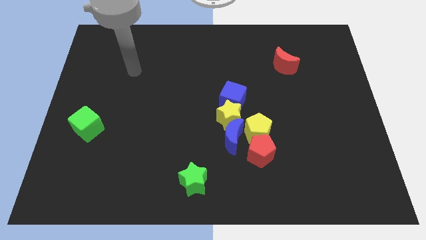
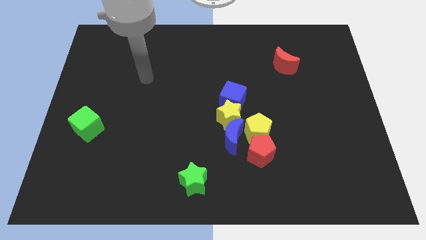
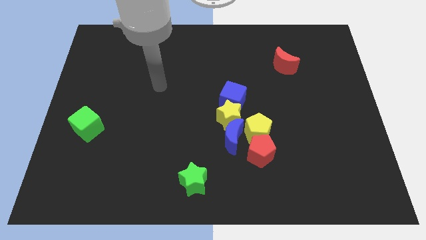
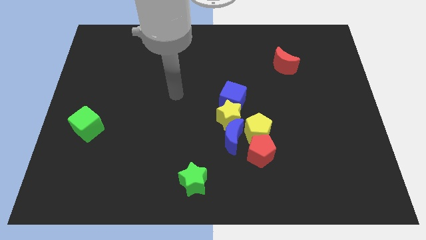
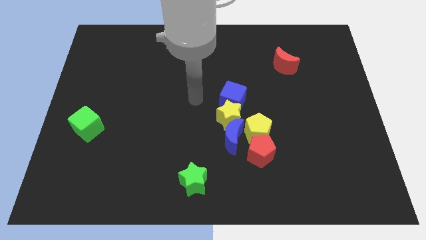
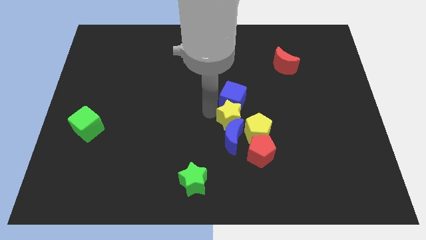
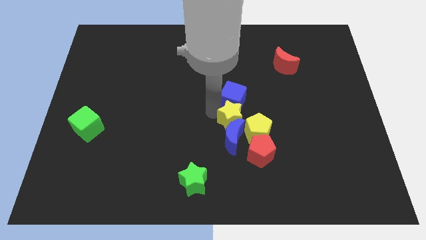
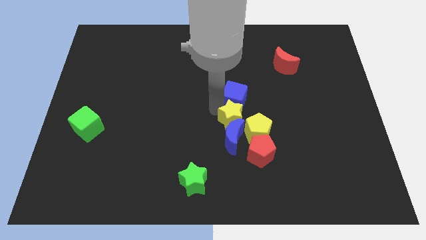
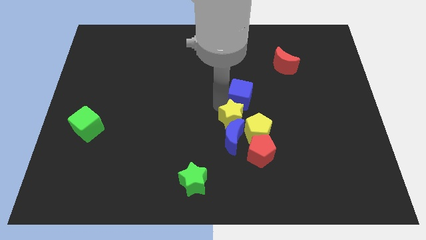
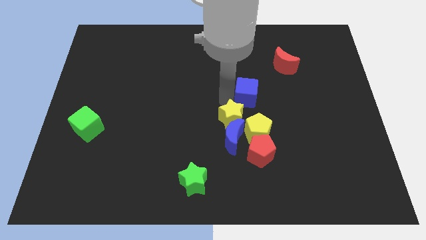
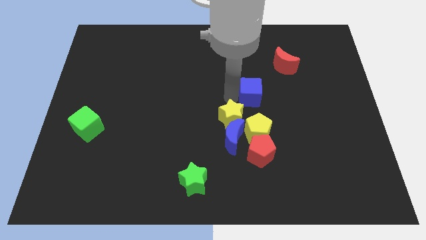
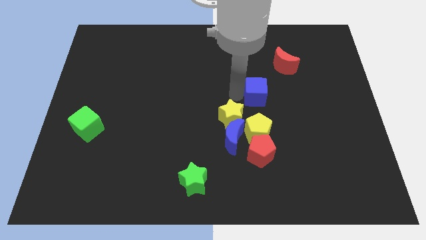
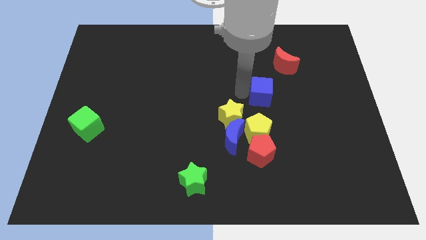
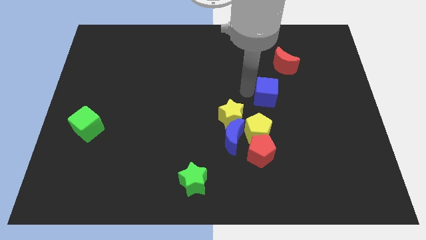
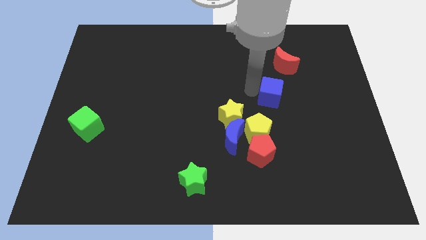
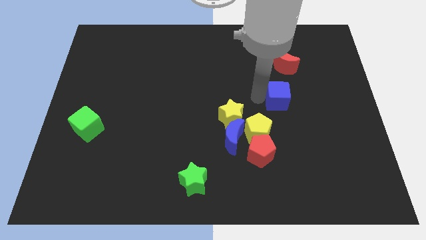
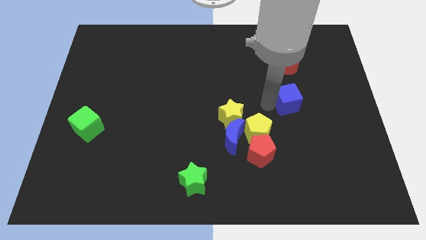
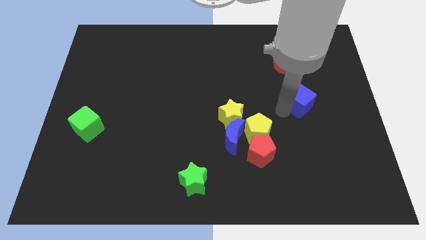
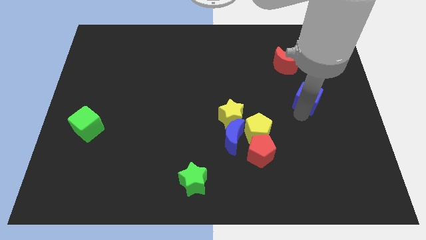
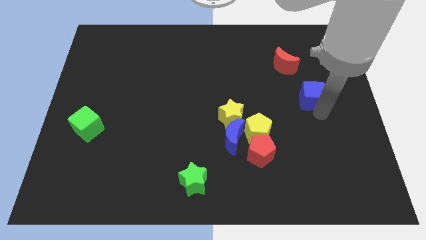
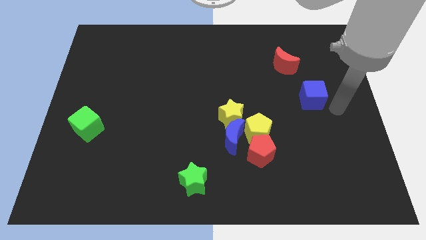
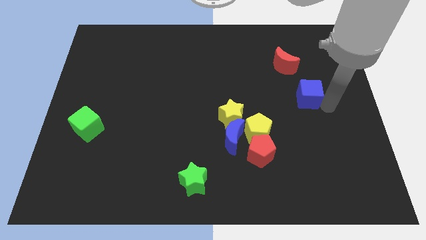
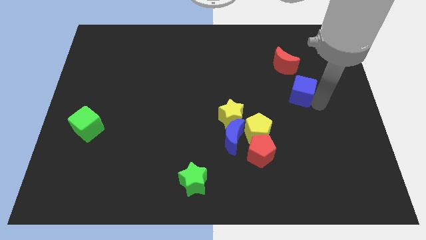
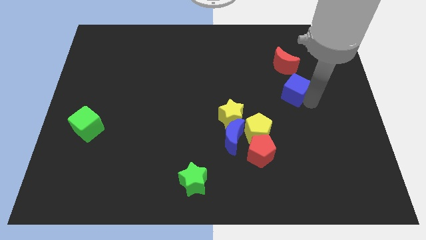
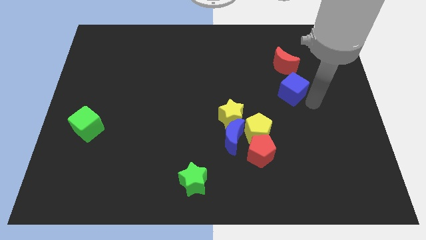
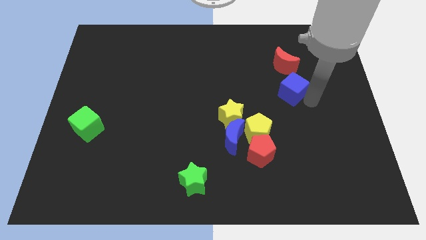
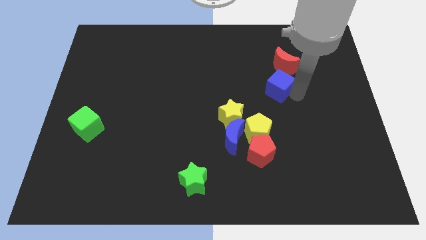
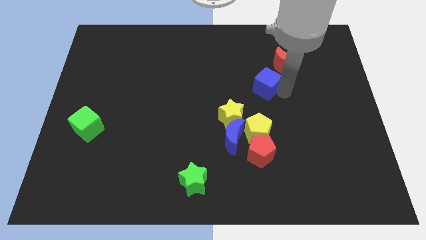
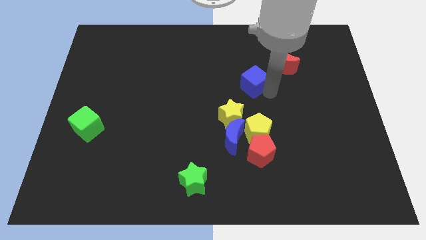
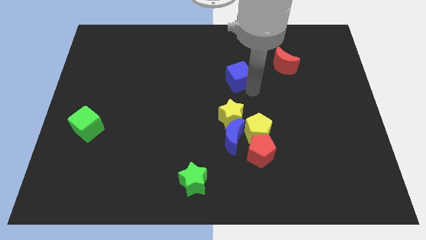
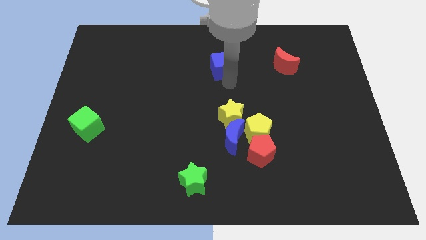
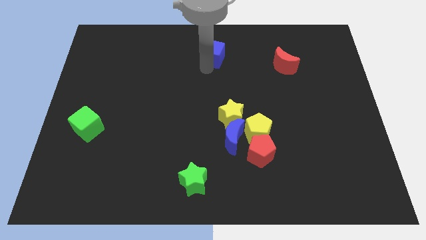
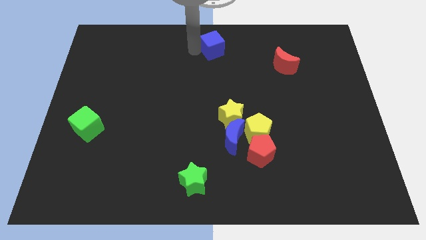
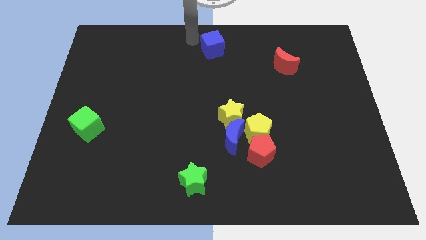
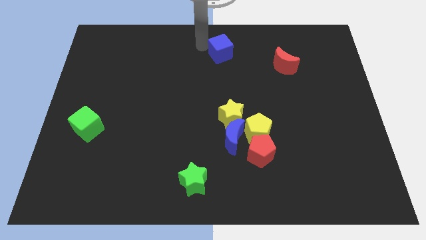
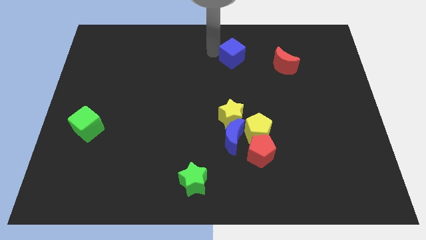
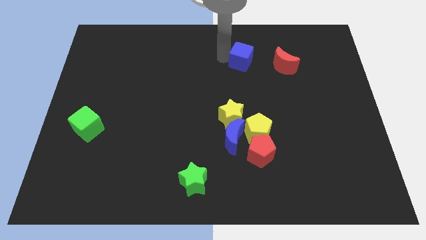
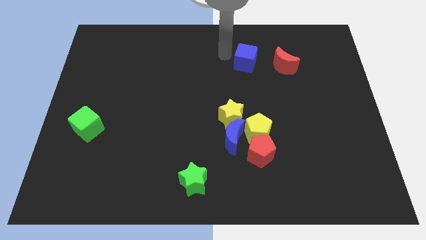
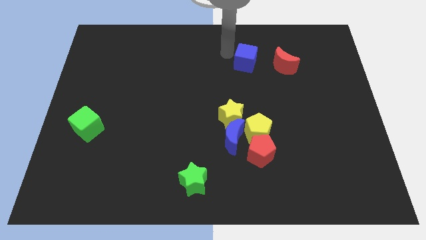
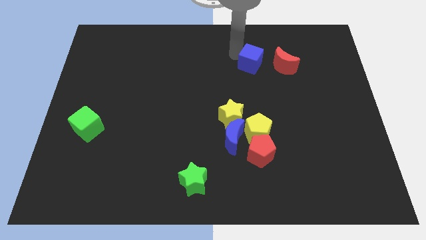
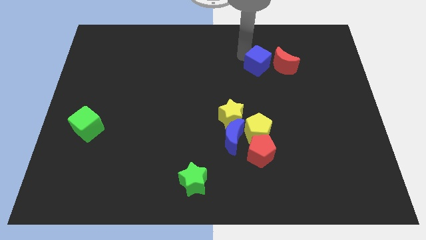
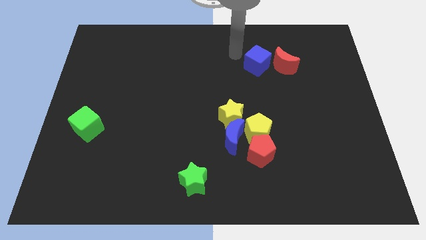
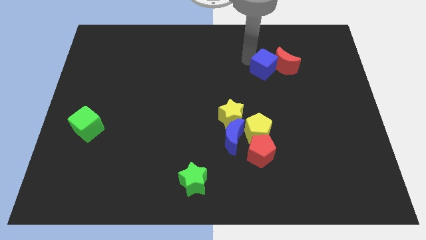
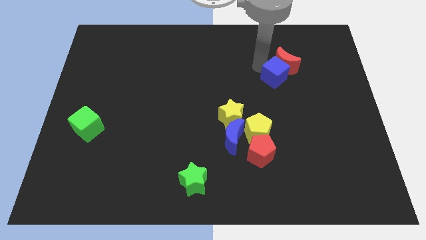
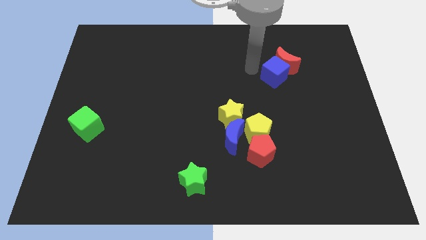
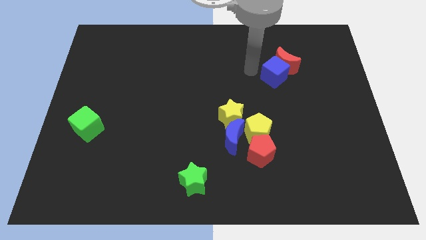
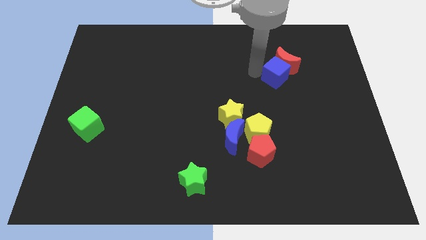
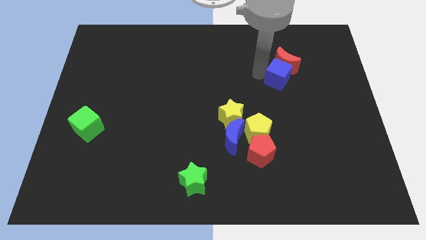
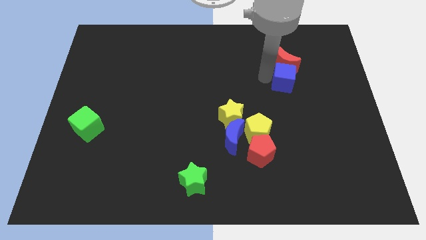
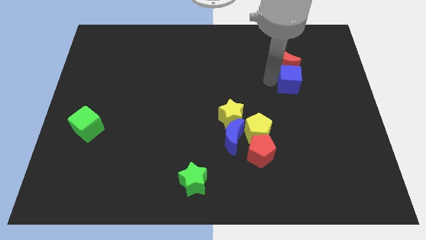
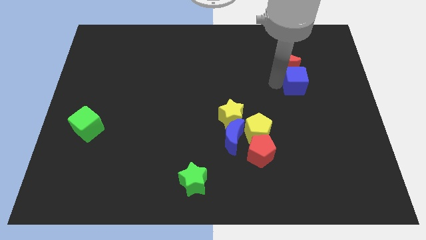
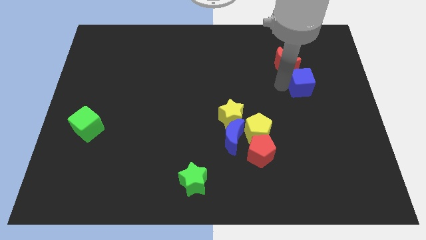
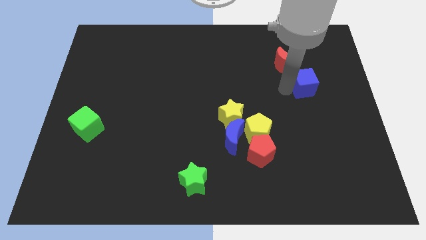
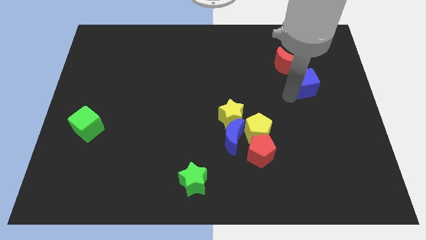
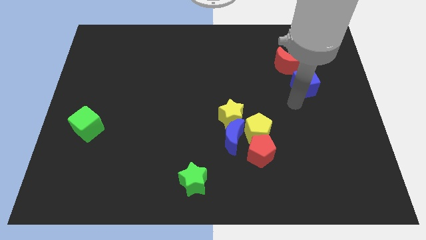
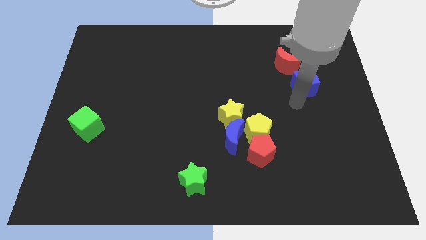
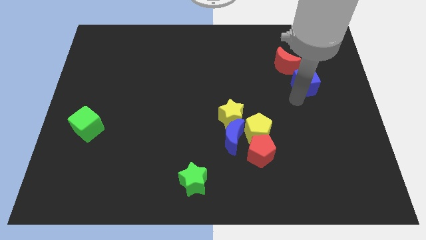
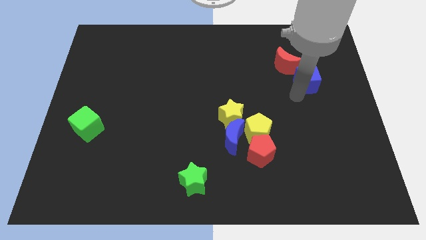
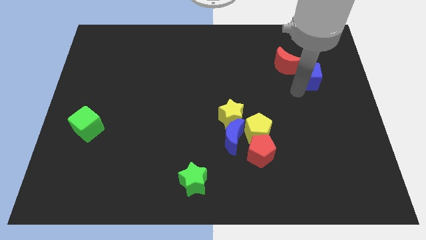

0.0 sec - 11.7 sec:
push the blue cube just right of the red moon

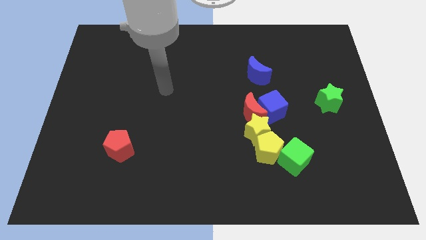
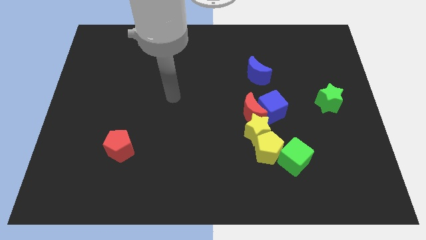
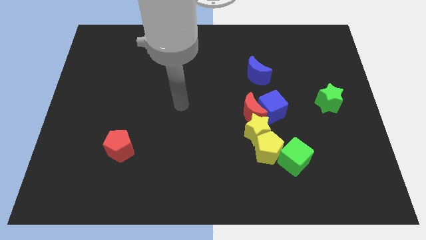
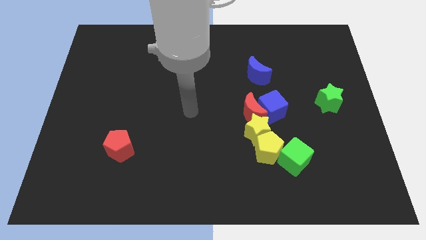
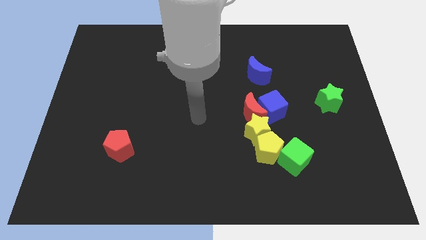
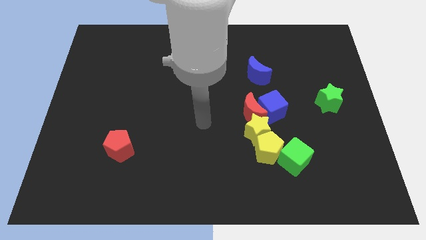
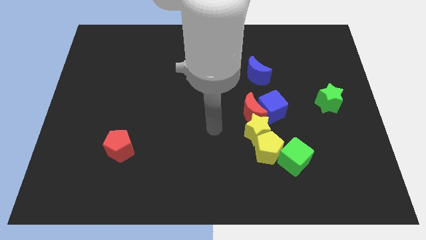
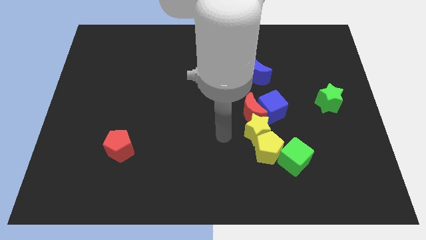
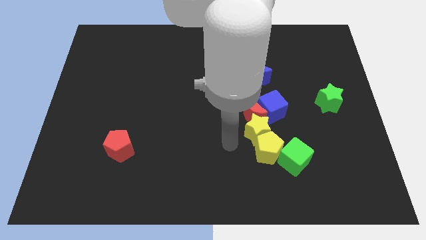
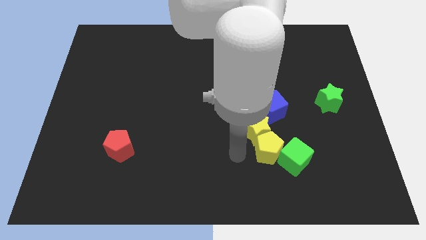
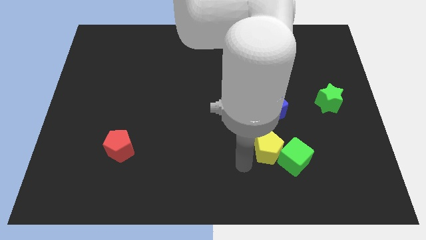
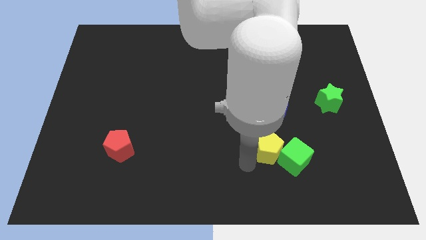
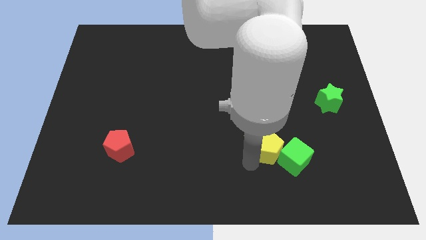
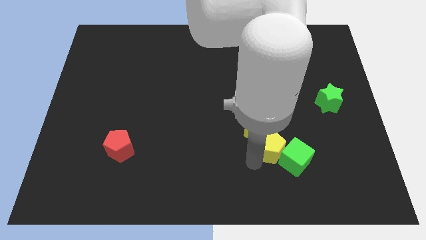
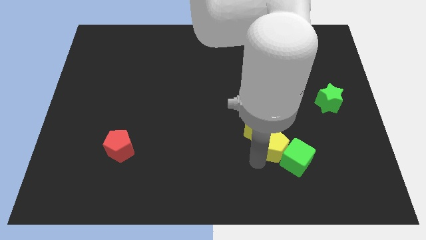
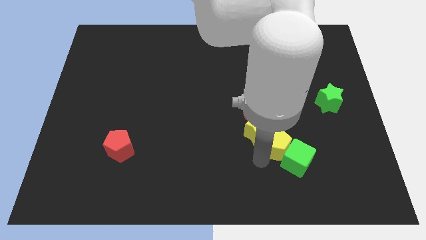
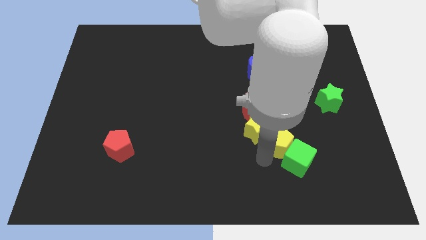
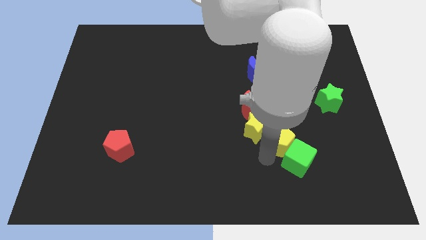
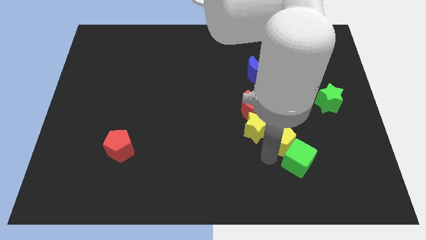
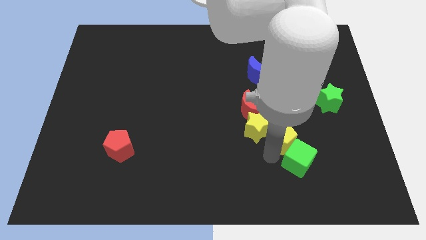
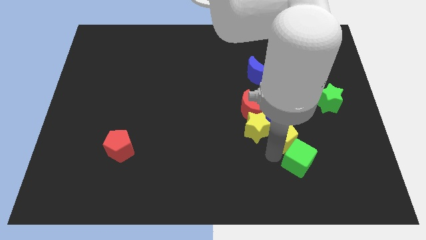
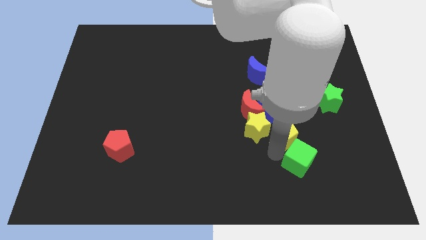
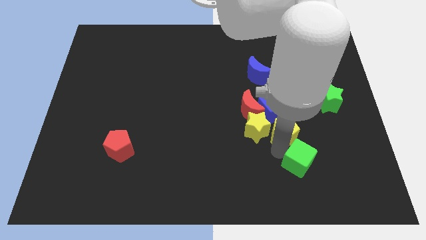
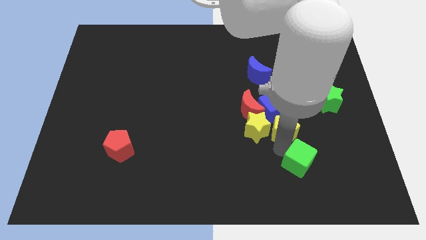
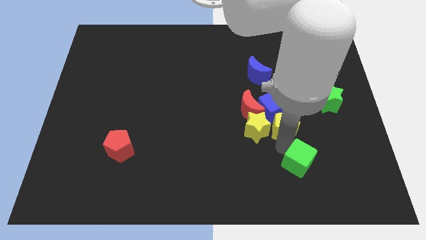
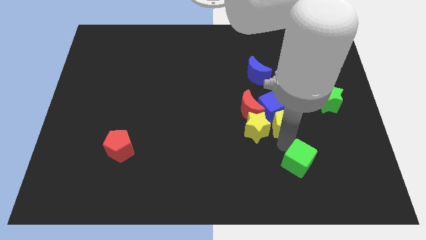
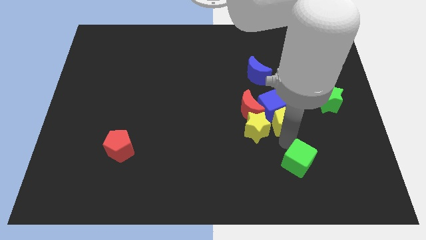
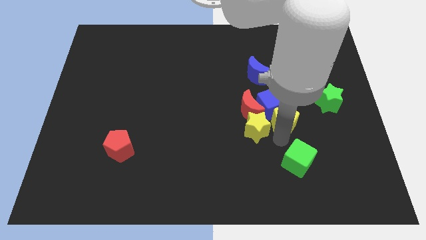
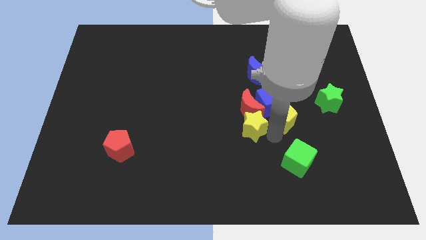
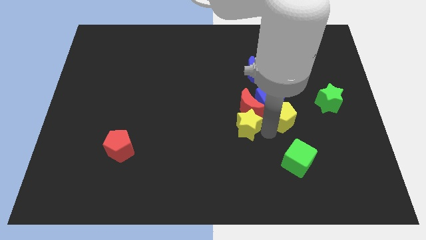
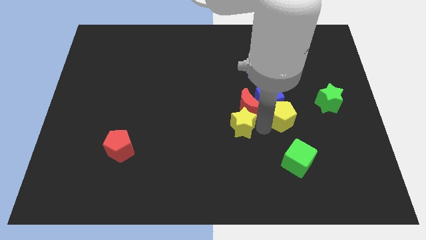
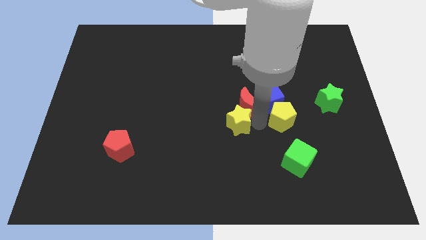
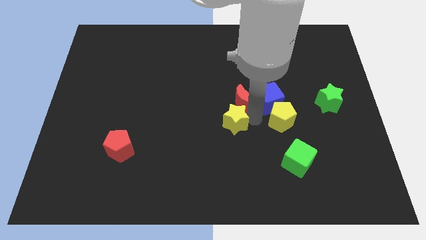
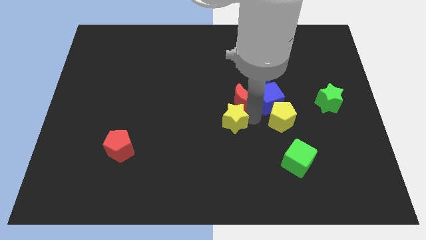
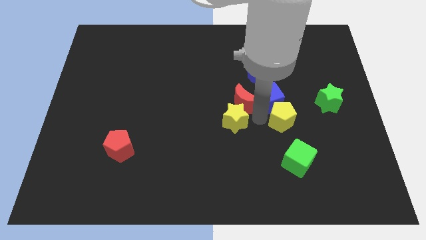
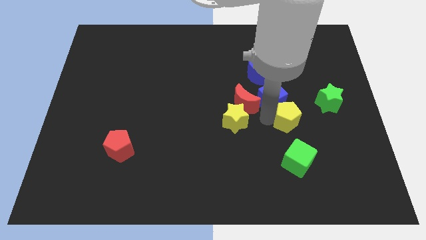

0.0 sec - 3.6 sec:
put the yellow pentagon diagonally down and to the left of the green star
